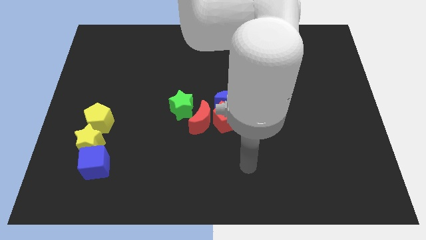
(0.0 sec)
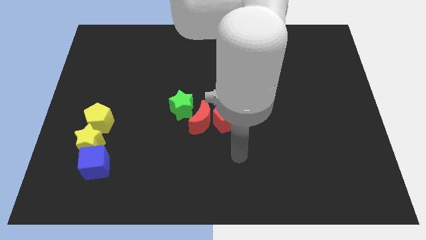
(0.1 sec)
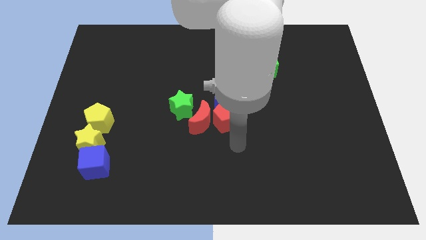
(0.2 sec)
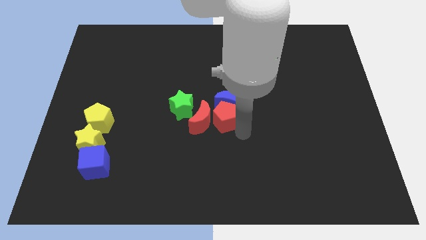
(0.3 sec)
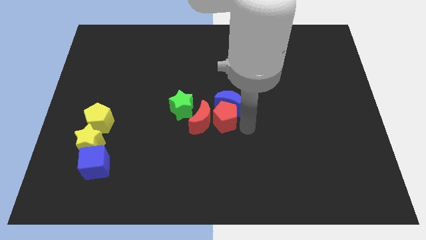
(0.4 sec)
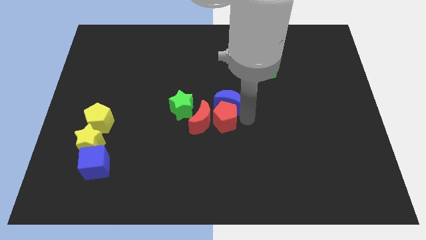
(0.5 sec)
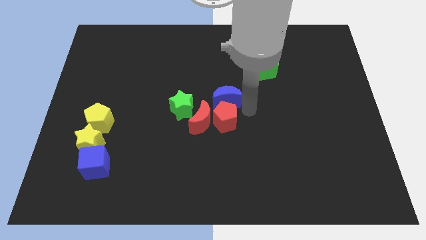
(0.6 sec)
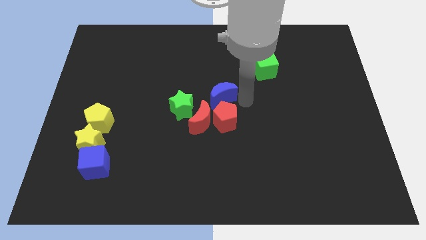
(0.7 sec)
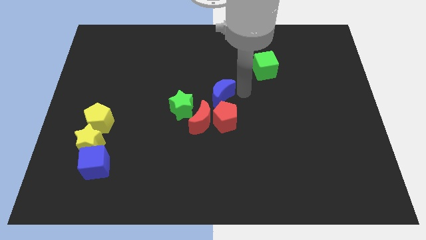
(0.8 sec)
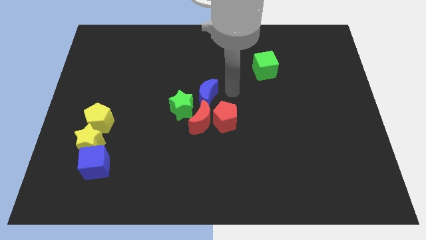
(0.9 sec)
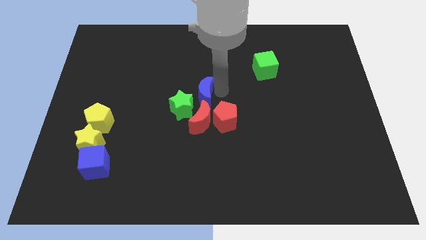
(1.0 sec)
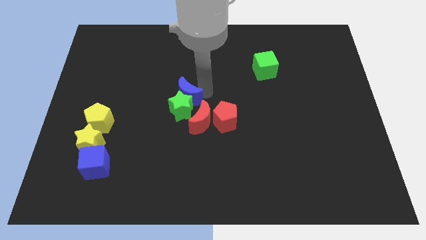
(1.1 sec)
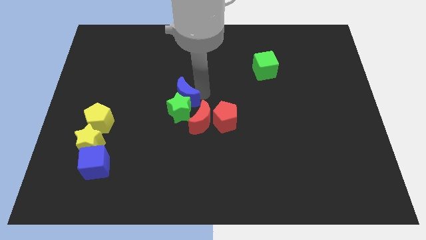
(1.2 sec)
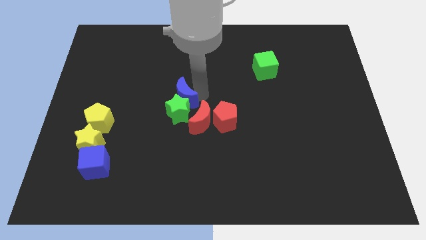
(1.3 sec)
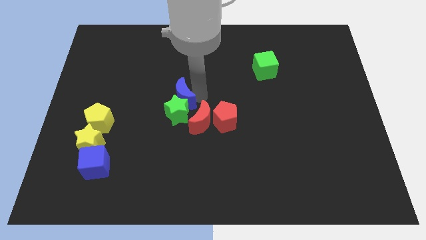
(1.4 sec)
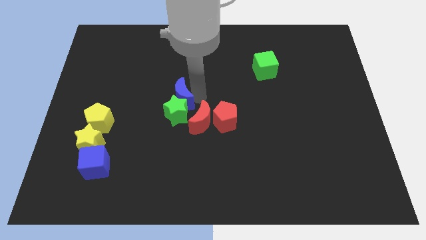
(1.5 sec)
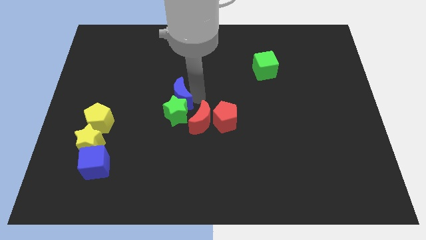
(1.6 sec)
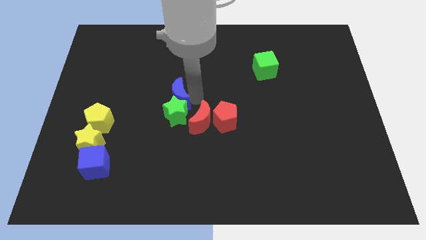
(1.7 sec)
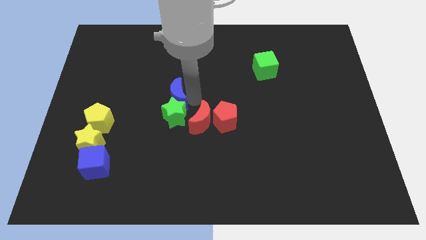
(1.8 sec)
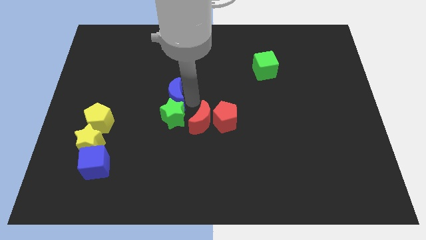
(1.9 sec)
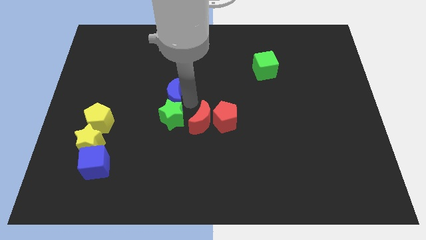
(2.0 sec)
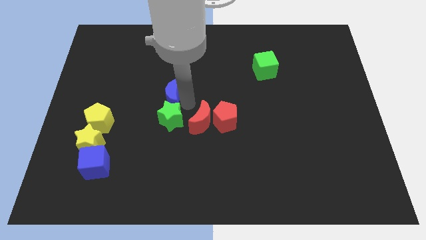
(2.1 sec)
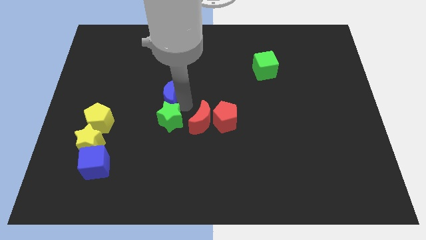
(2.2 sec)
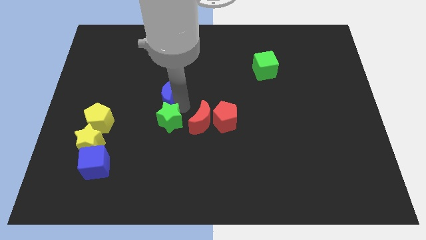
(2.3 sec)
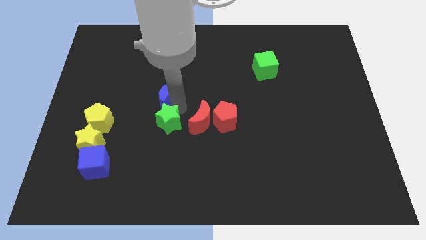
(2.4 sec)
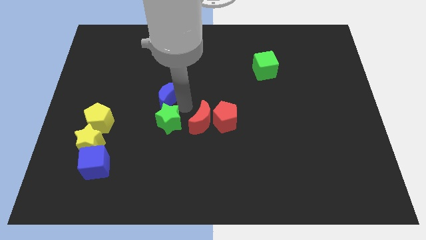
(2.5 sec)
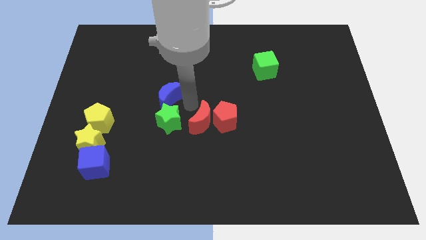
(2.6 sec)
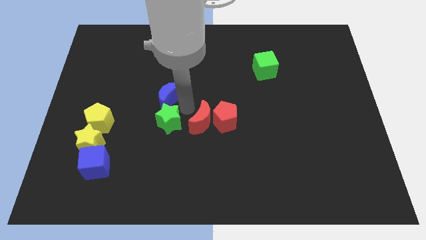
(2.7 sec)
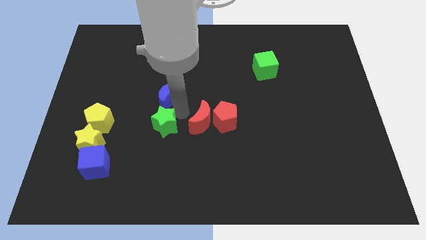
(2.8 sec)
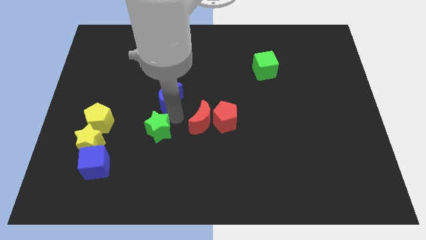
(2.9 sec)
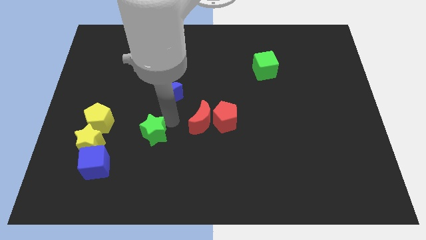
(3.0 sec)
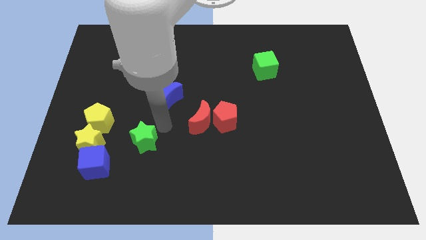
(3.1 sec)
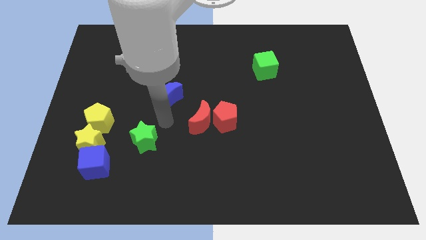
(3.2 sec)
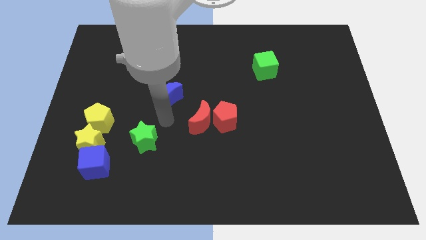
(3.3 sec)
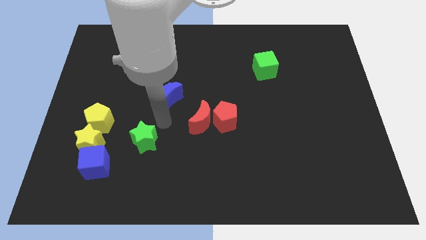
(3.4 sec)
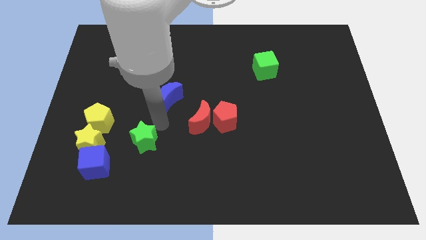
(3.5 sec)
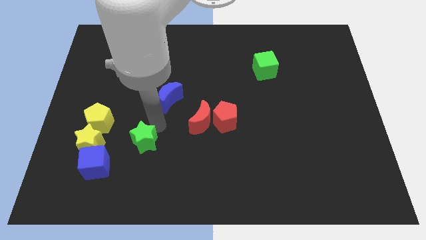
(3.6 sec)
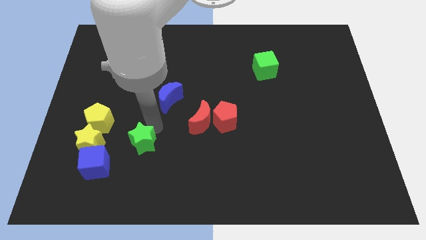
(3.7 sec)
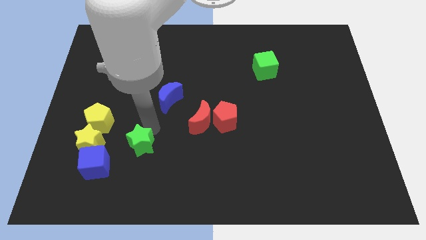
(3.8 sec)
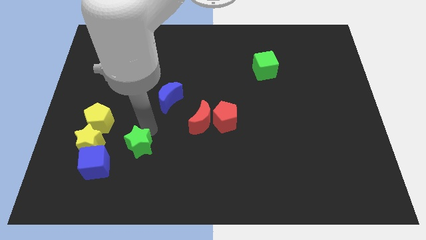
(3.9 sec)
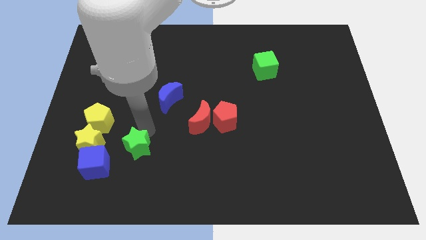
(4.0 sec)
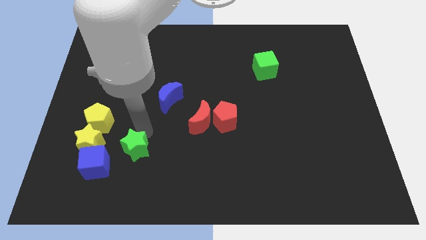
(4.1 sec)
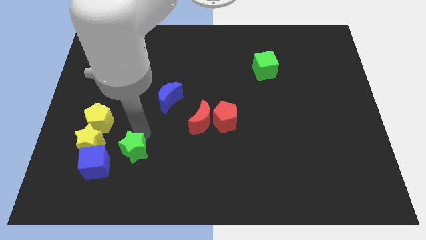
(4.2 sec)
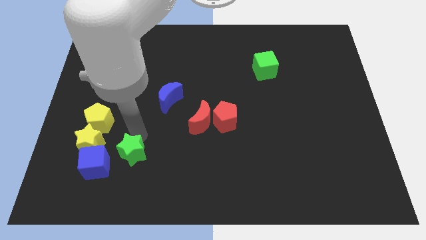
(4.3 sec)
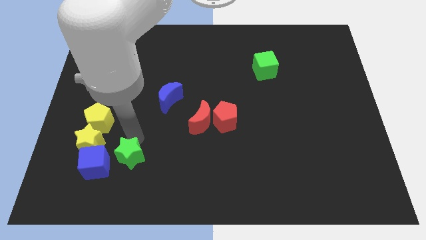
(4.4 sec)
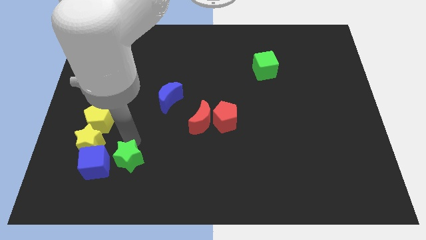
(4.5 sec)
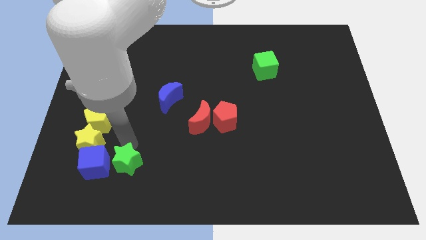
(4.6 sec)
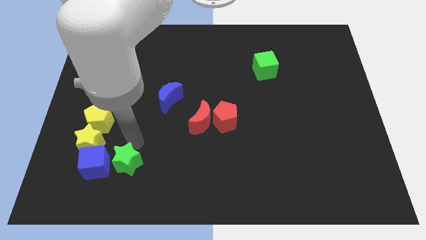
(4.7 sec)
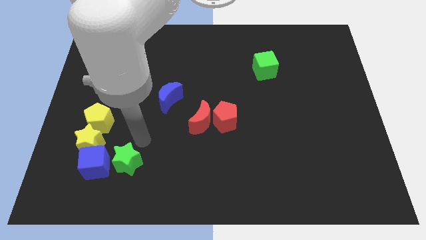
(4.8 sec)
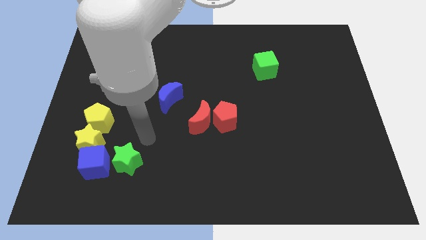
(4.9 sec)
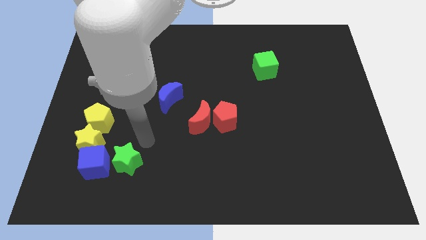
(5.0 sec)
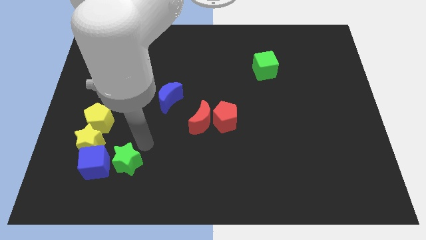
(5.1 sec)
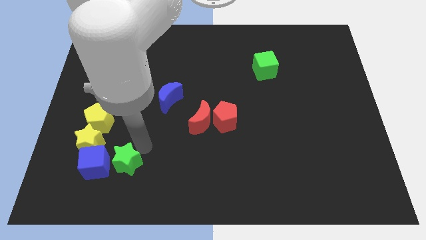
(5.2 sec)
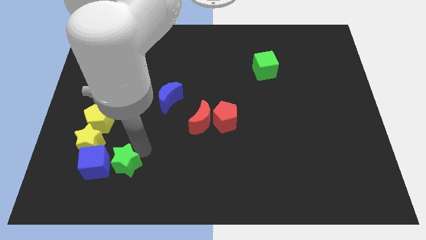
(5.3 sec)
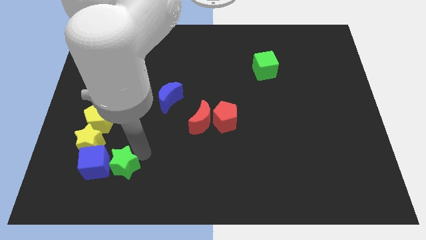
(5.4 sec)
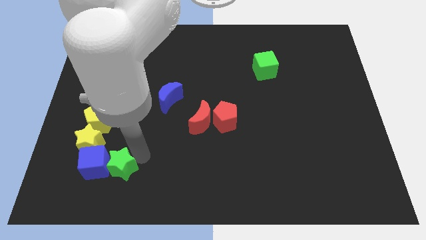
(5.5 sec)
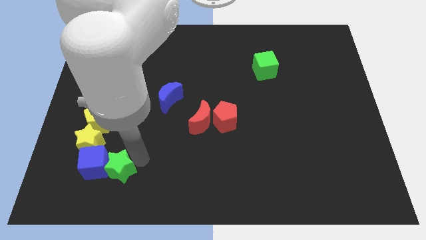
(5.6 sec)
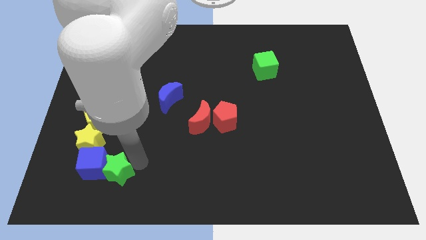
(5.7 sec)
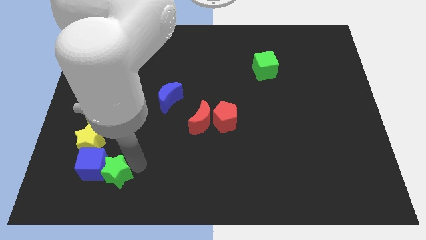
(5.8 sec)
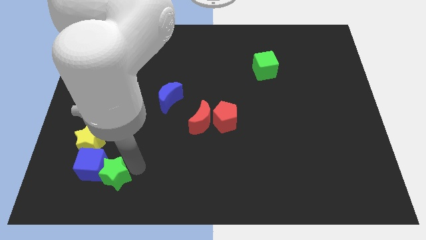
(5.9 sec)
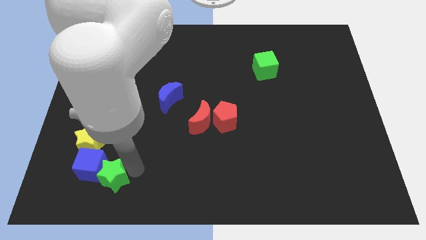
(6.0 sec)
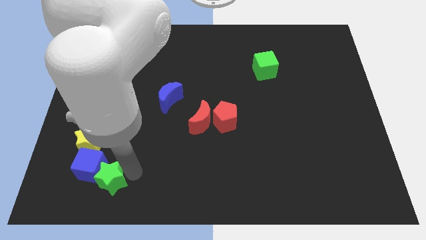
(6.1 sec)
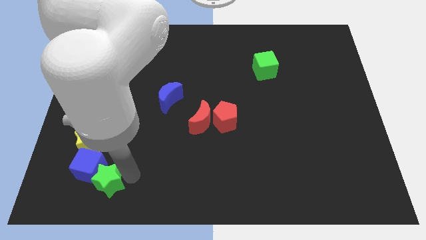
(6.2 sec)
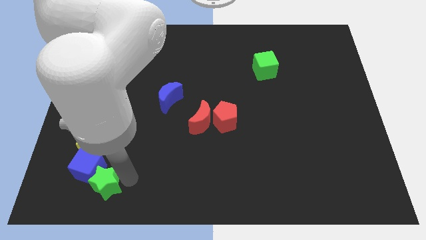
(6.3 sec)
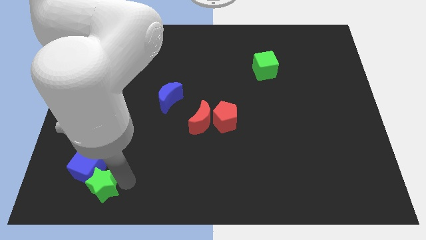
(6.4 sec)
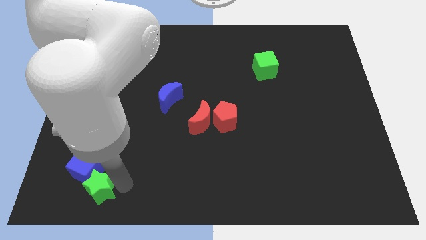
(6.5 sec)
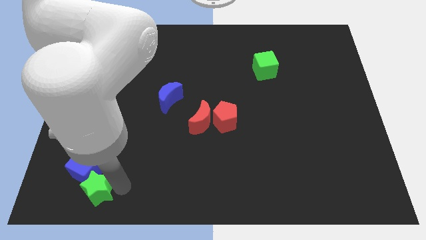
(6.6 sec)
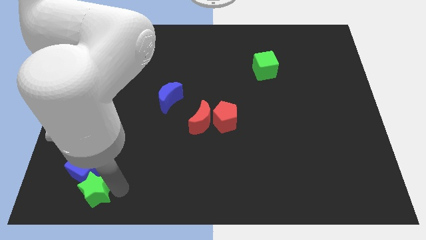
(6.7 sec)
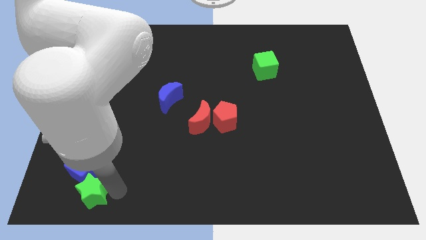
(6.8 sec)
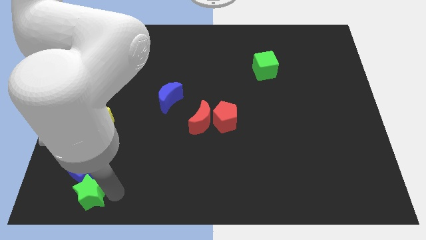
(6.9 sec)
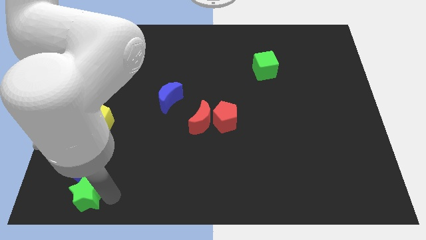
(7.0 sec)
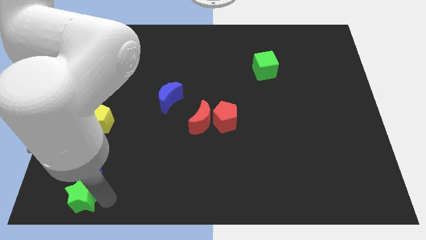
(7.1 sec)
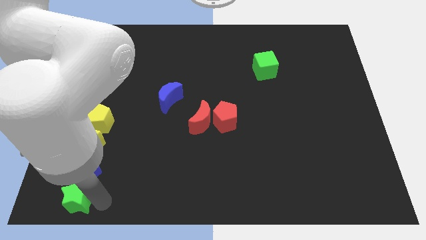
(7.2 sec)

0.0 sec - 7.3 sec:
push the green star to the bottom left
